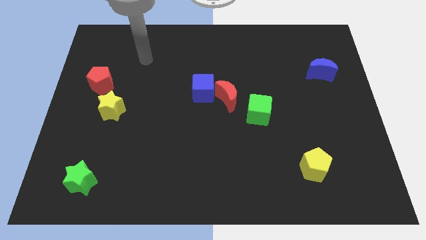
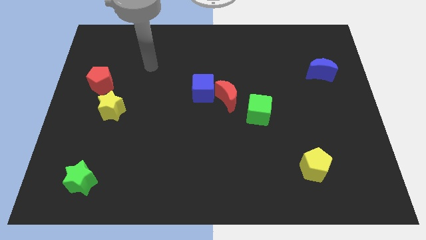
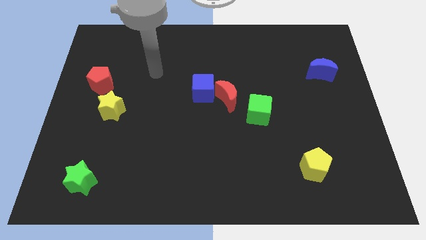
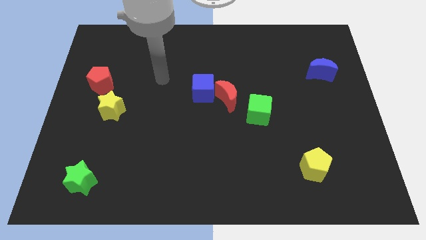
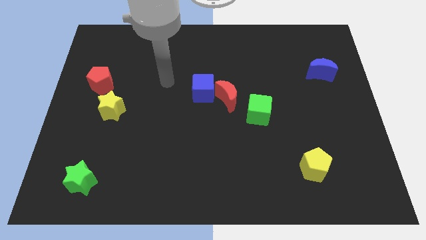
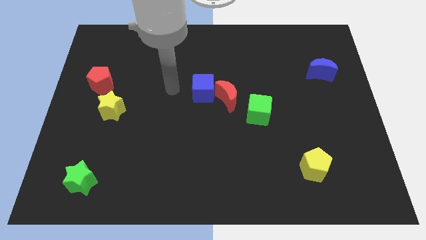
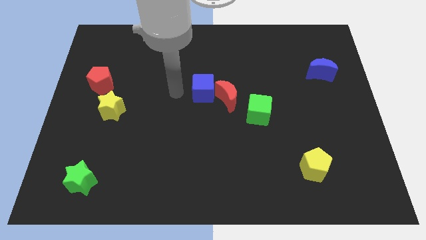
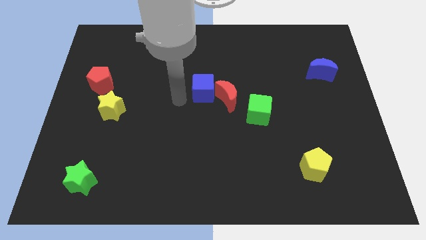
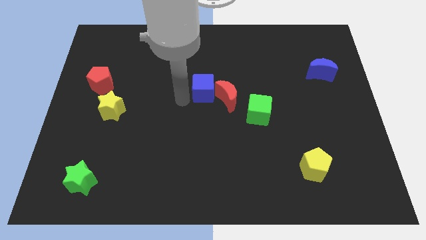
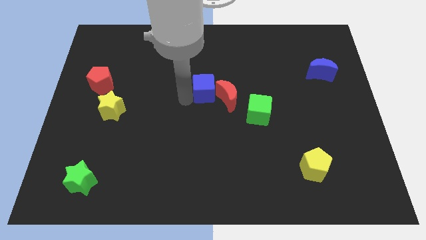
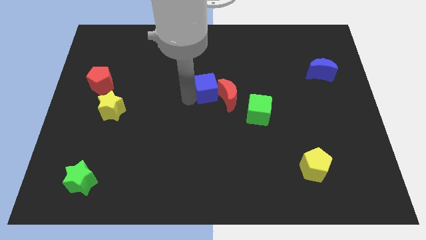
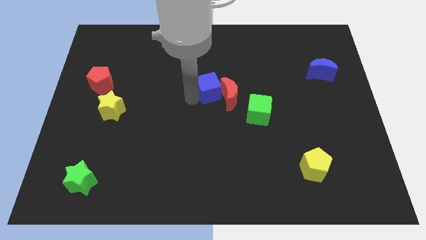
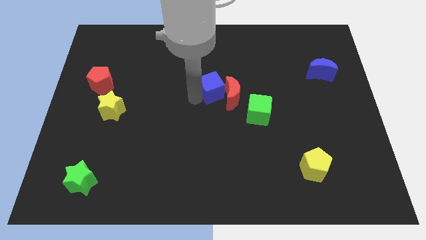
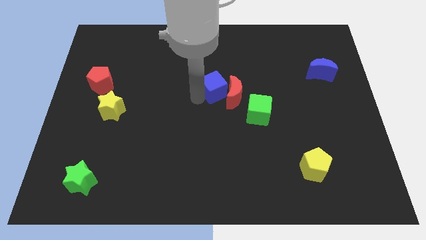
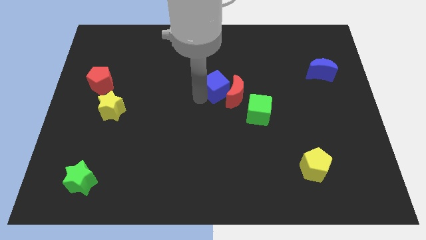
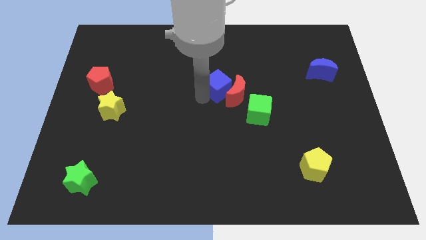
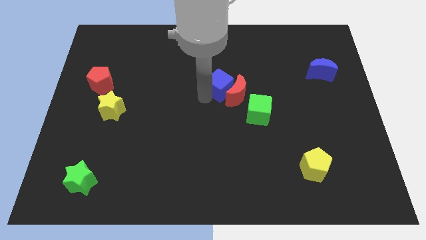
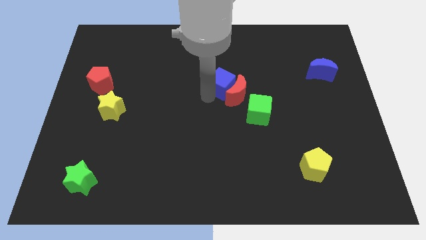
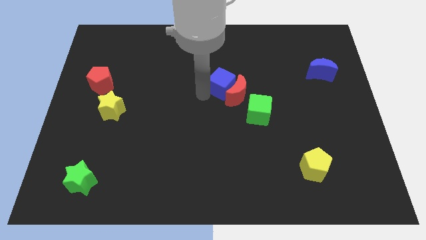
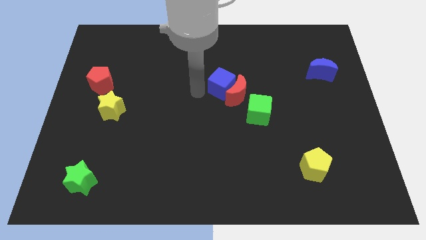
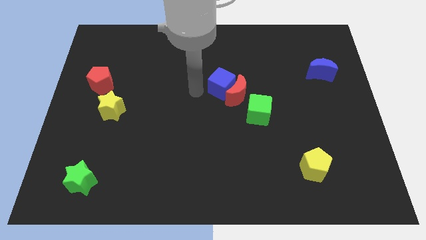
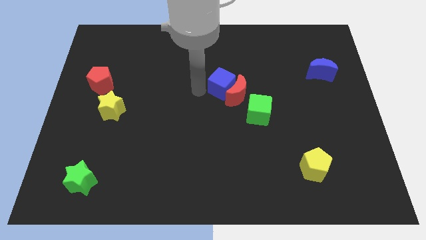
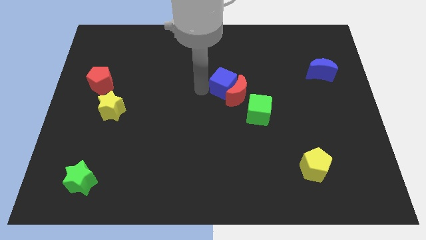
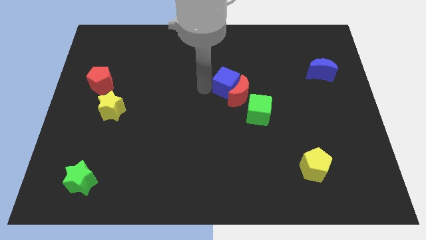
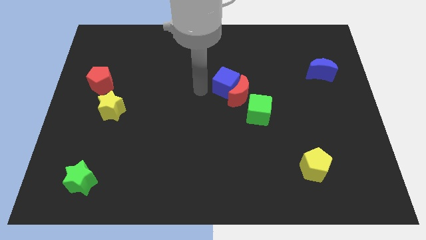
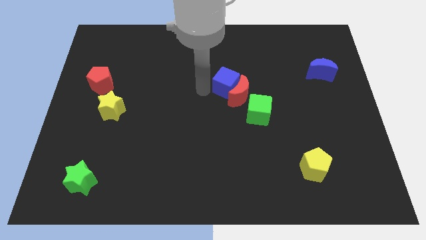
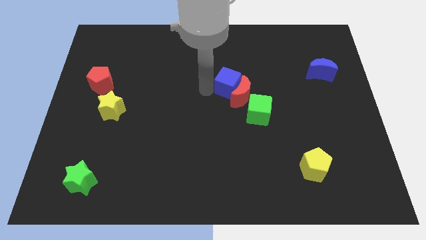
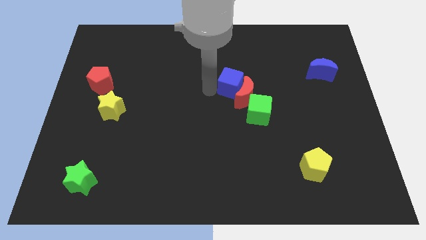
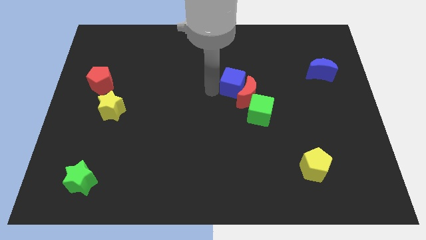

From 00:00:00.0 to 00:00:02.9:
slide the blue cube right a bit

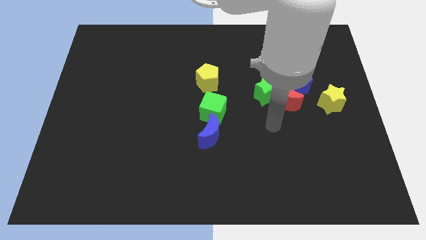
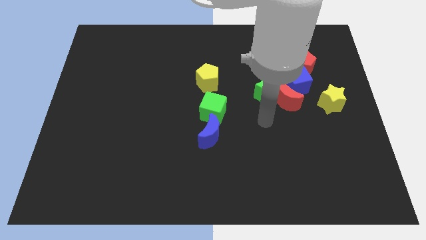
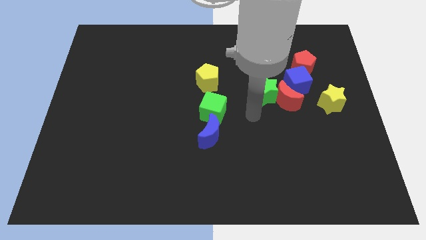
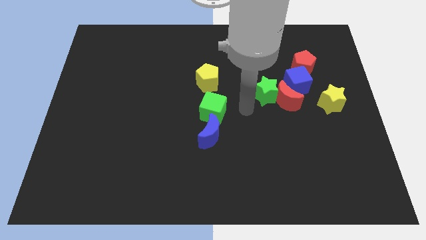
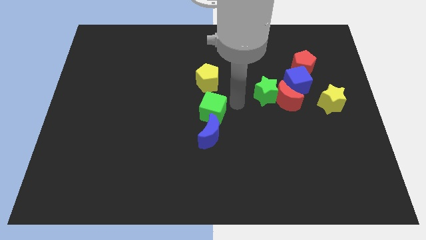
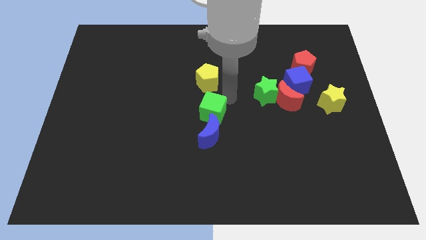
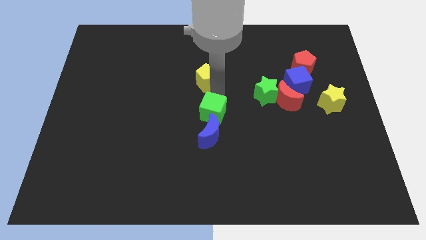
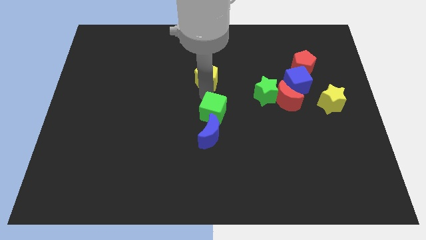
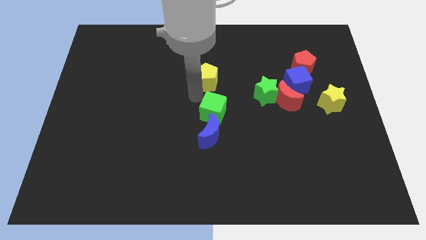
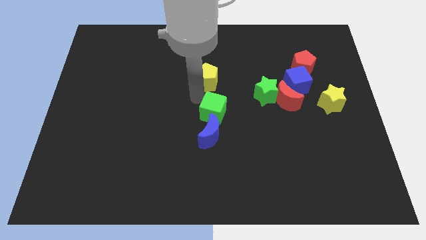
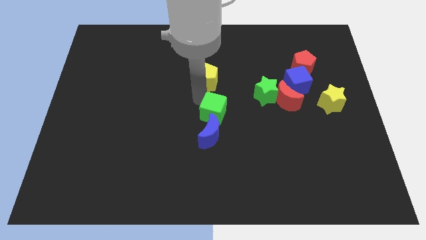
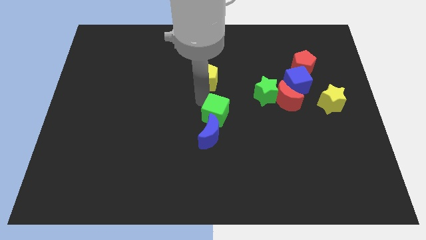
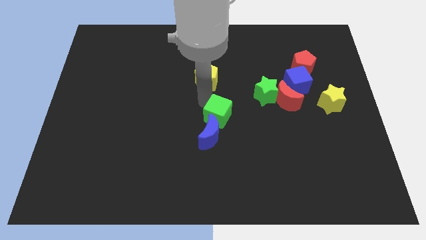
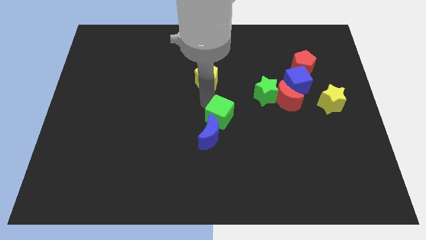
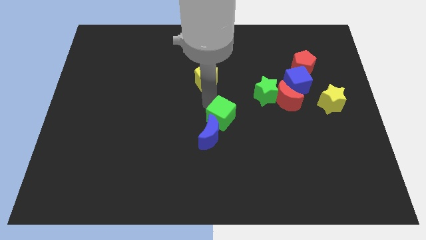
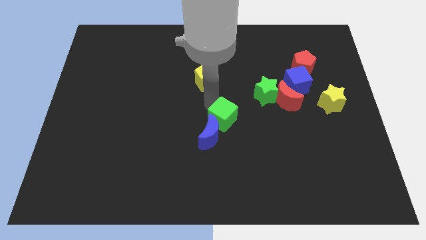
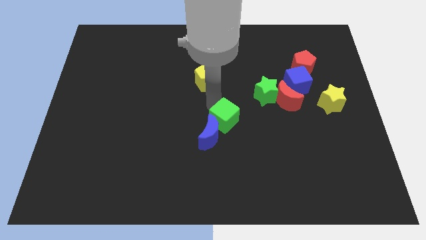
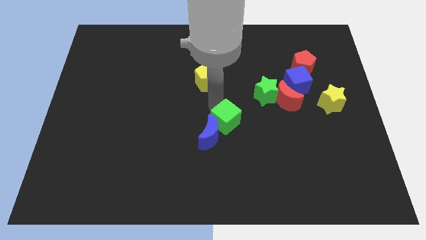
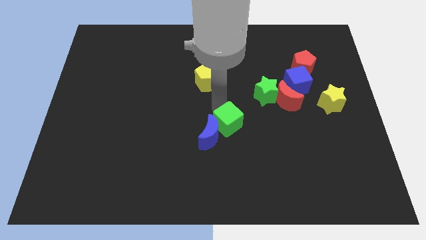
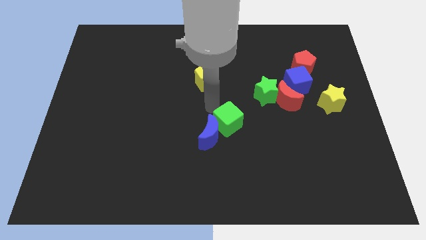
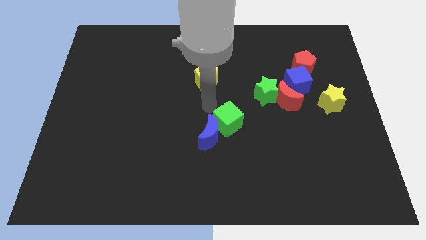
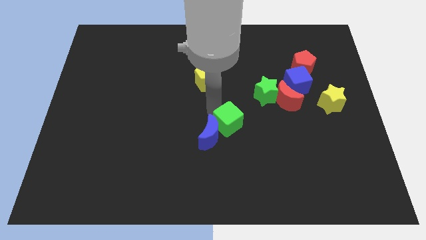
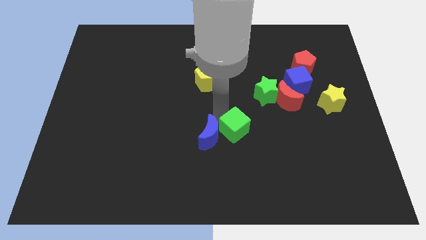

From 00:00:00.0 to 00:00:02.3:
slightly move the green cube down and right

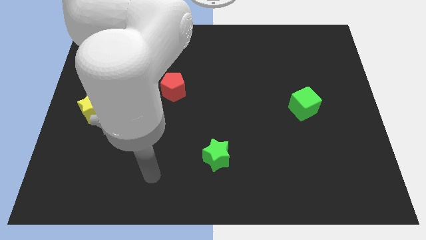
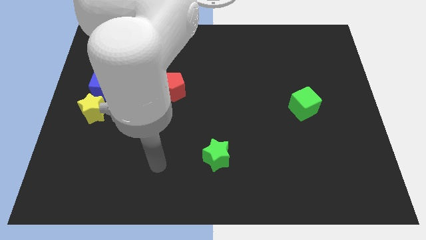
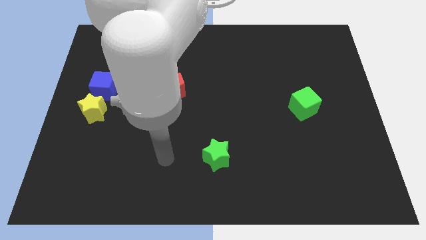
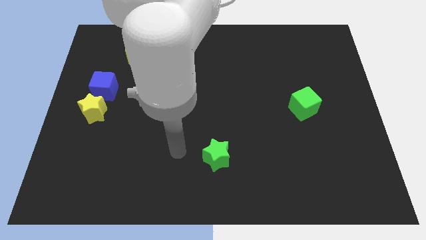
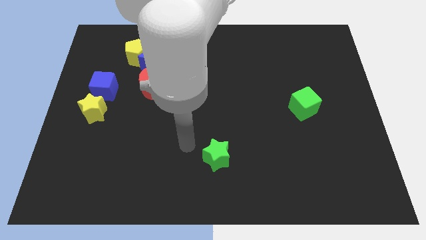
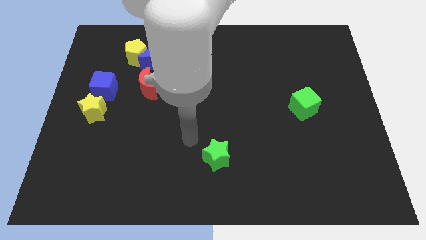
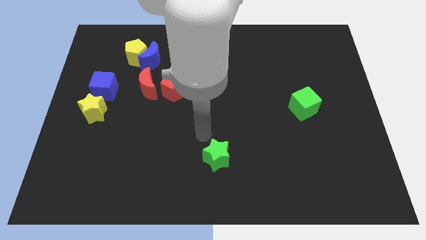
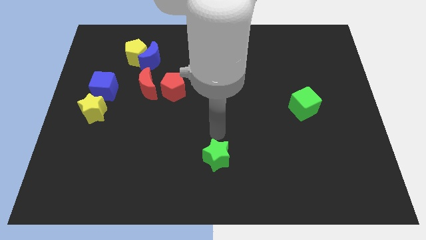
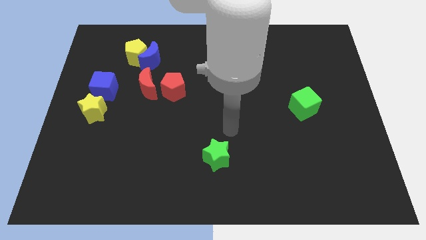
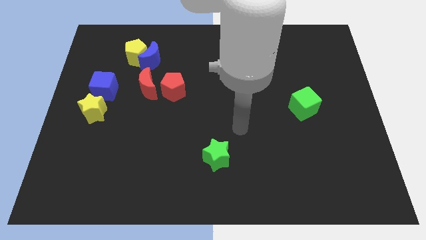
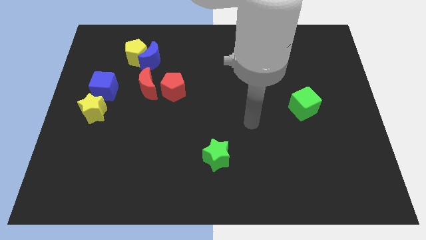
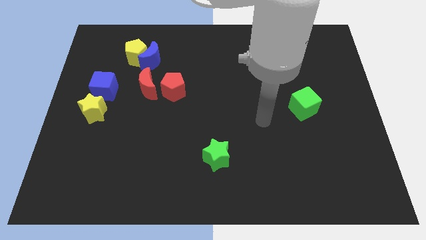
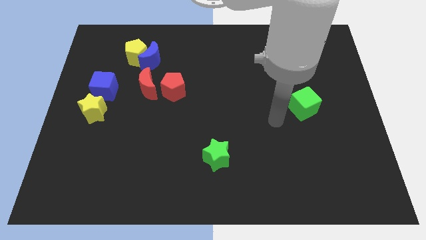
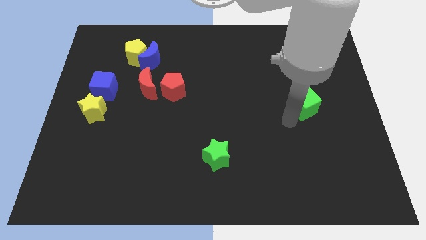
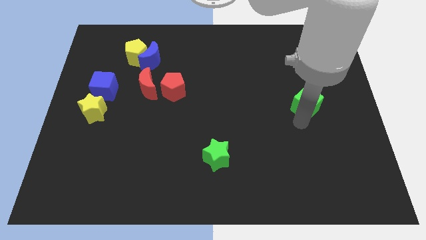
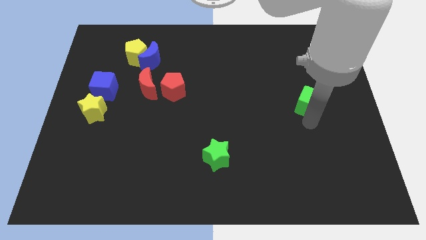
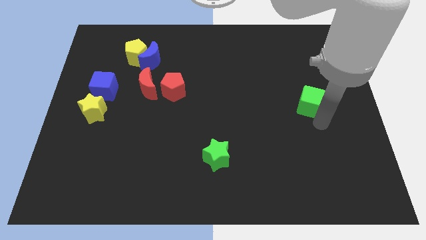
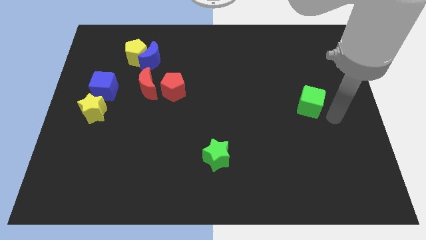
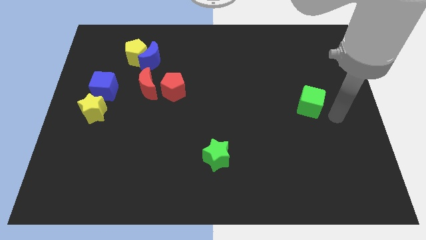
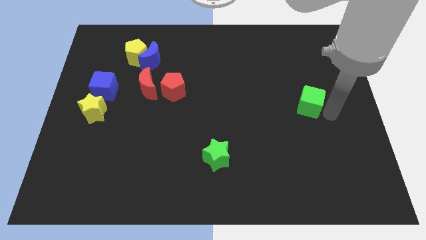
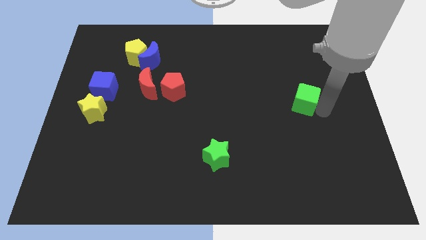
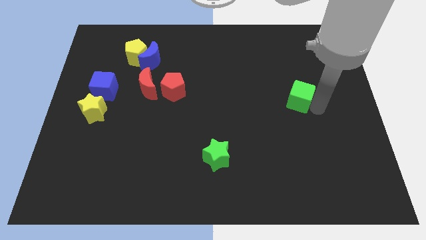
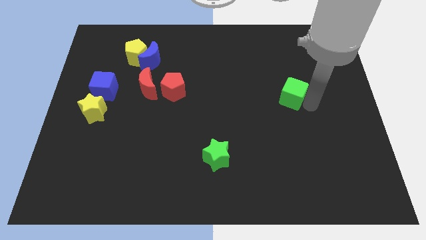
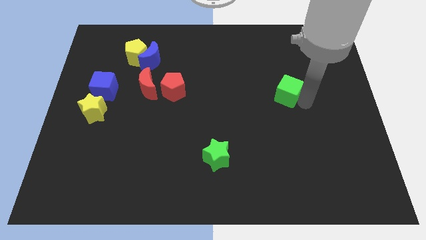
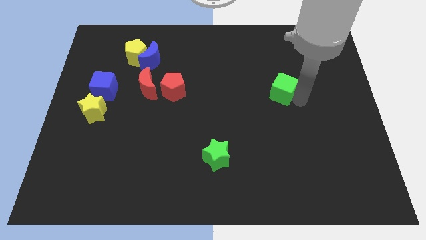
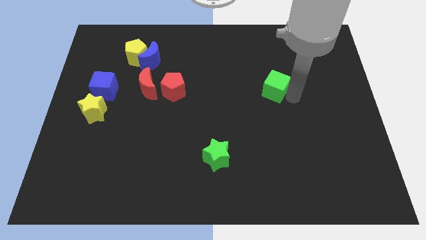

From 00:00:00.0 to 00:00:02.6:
move the green cube a little bit up and then left
